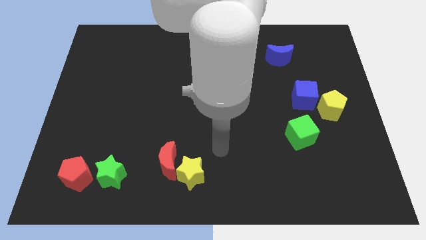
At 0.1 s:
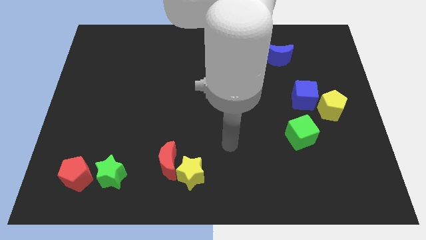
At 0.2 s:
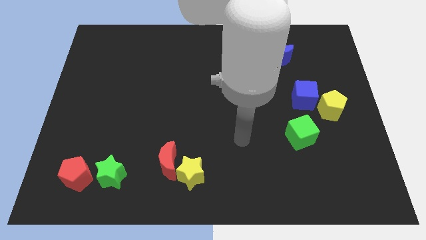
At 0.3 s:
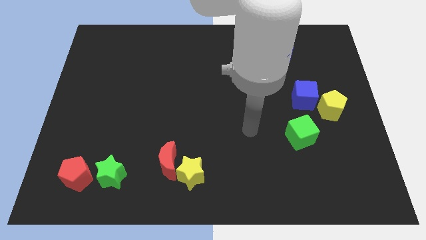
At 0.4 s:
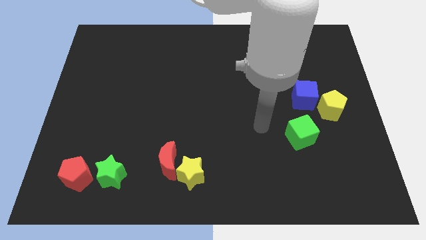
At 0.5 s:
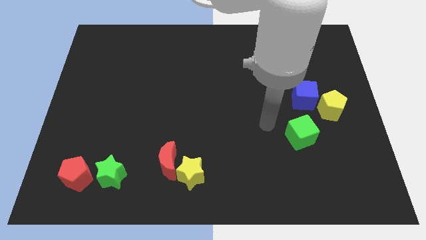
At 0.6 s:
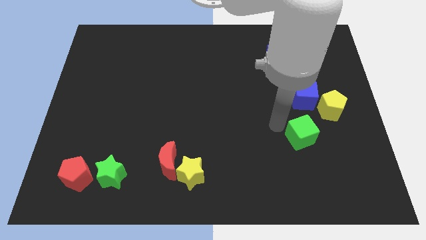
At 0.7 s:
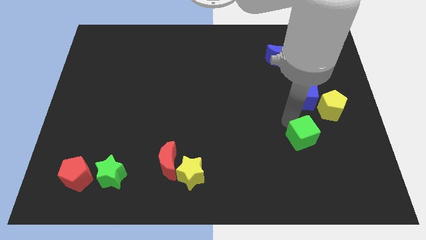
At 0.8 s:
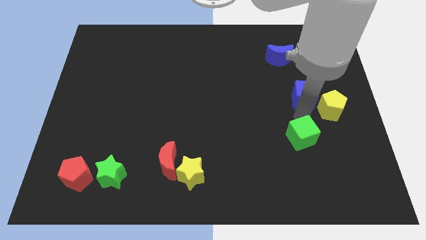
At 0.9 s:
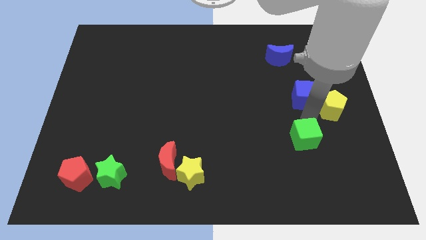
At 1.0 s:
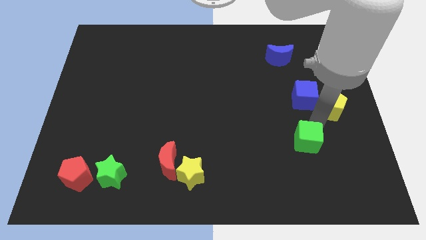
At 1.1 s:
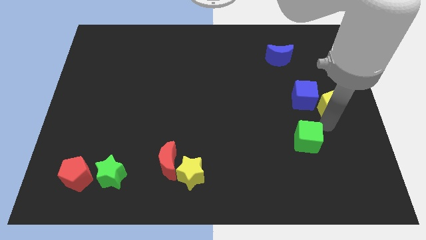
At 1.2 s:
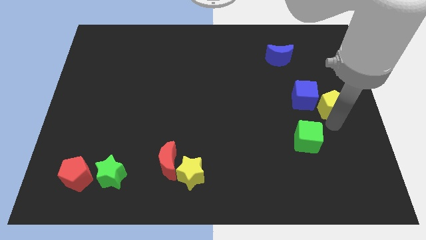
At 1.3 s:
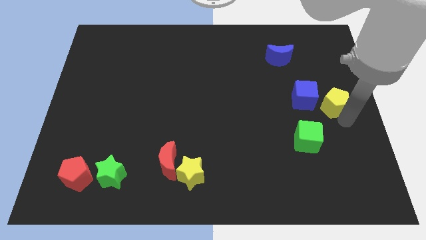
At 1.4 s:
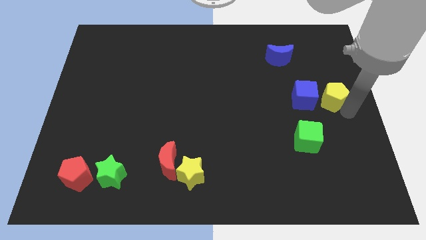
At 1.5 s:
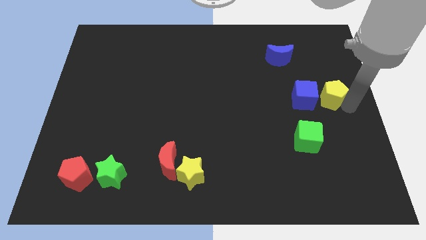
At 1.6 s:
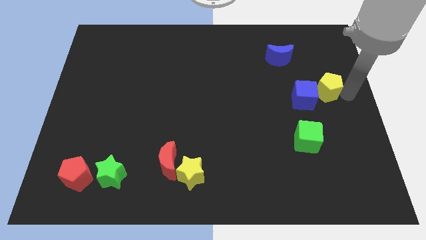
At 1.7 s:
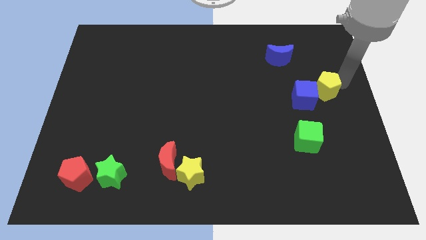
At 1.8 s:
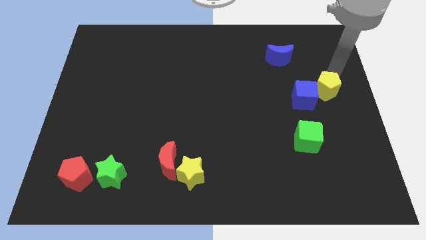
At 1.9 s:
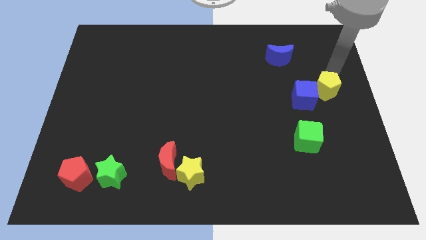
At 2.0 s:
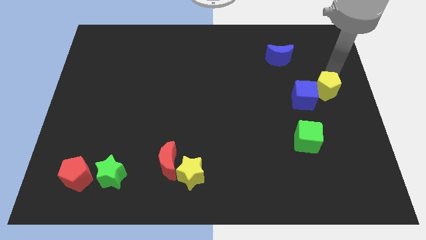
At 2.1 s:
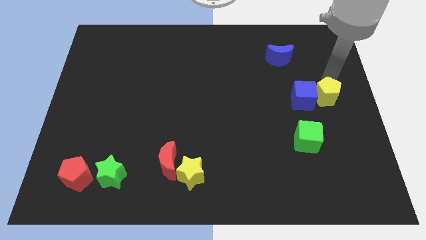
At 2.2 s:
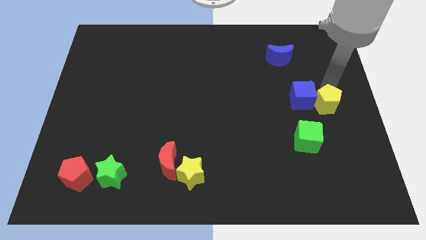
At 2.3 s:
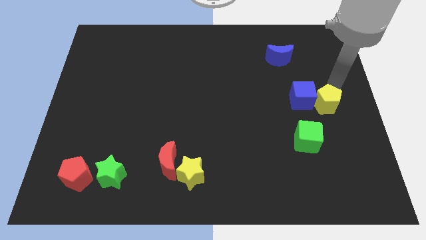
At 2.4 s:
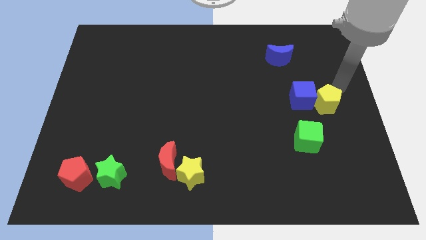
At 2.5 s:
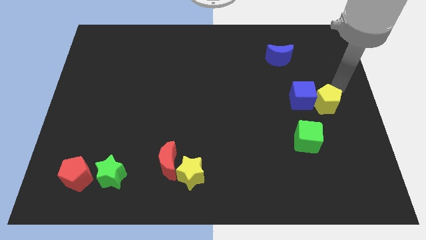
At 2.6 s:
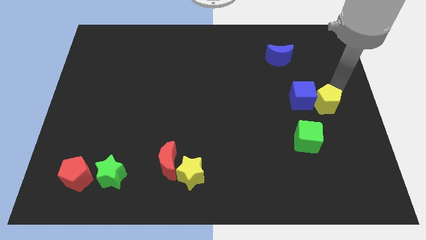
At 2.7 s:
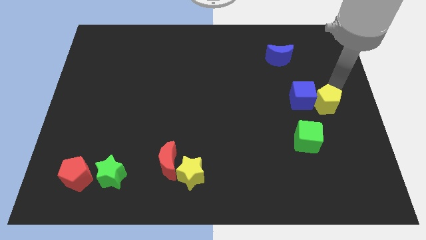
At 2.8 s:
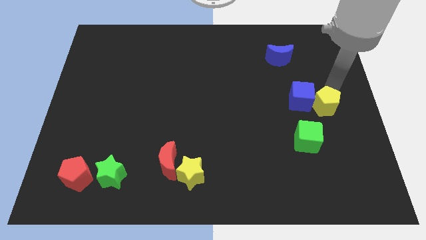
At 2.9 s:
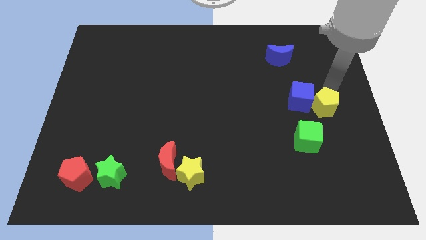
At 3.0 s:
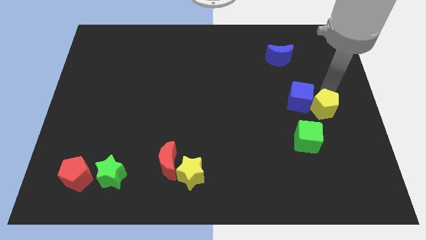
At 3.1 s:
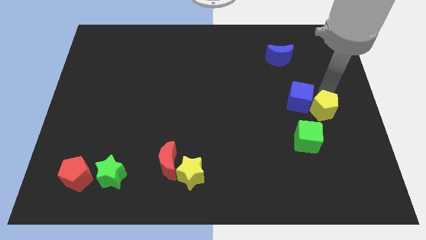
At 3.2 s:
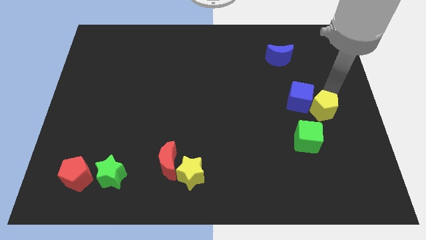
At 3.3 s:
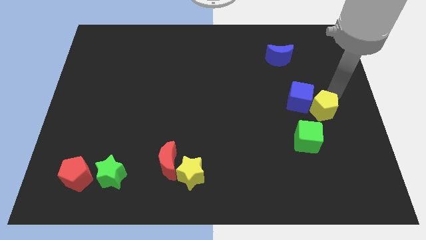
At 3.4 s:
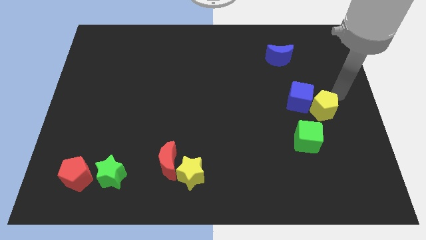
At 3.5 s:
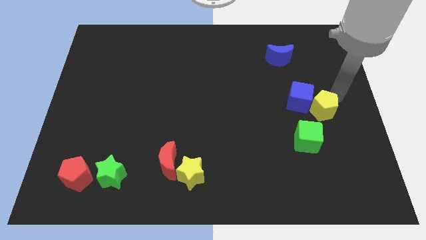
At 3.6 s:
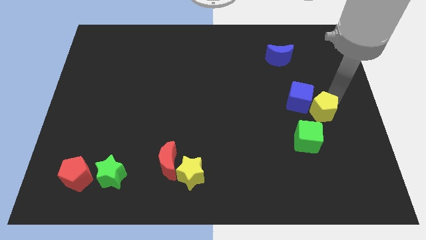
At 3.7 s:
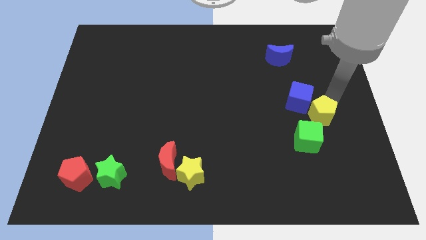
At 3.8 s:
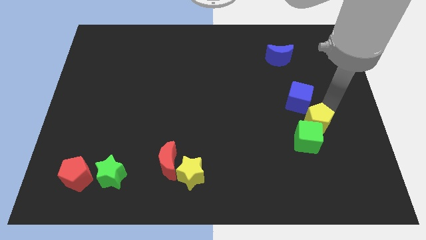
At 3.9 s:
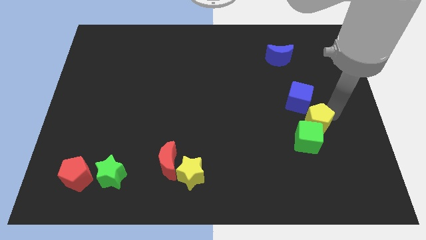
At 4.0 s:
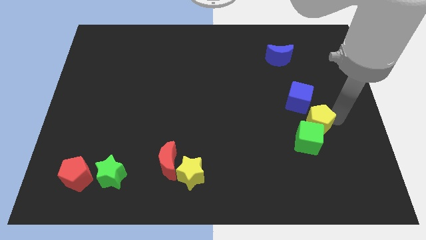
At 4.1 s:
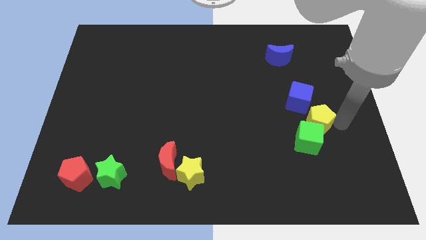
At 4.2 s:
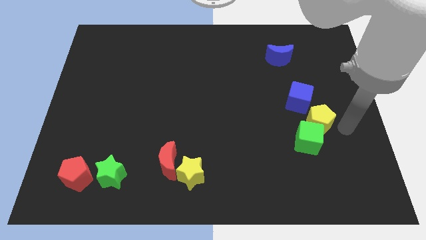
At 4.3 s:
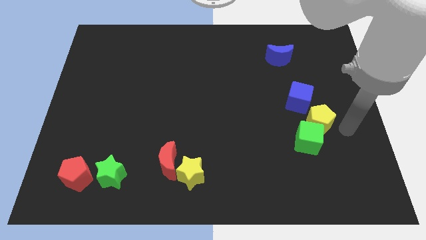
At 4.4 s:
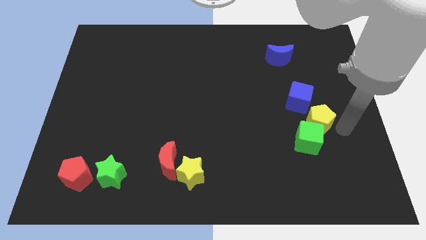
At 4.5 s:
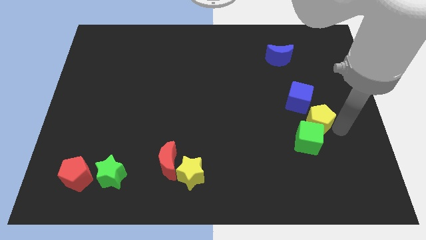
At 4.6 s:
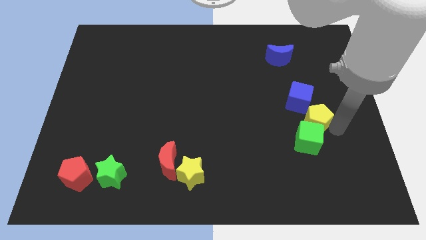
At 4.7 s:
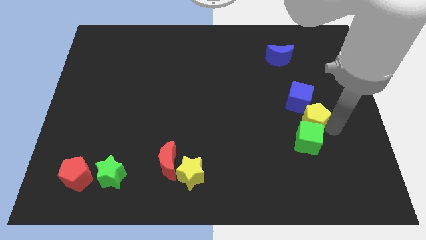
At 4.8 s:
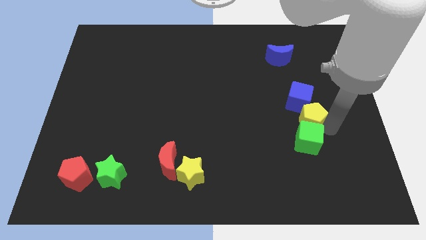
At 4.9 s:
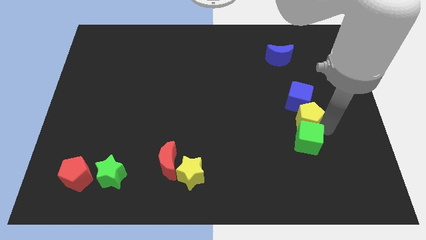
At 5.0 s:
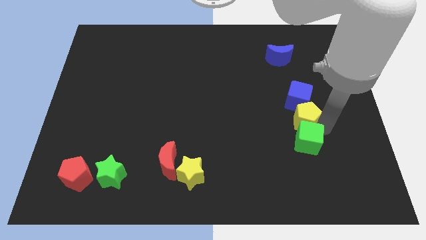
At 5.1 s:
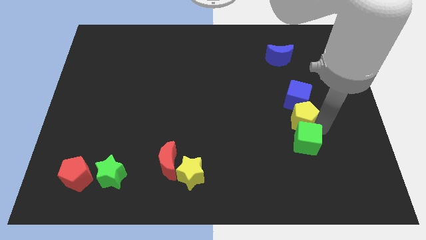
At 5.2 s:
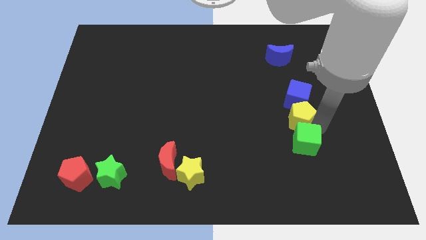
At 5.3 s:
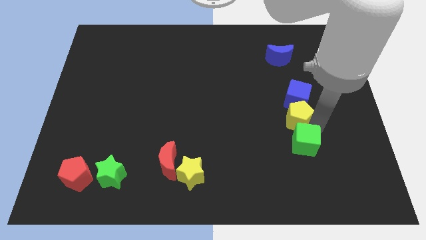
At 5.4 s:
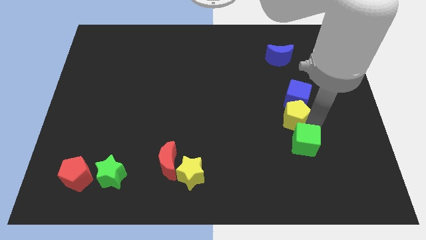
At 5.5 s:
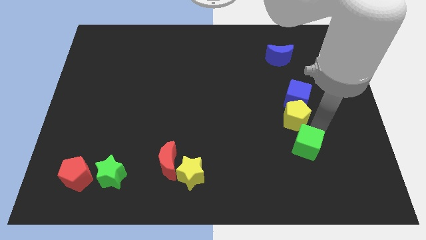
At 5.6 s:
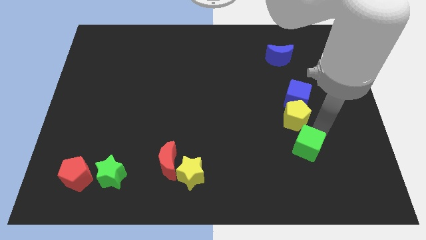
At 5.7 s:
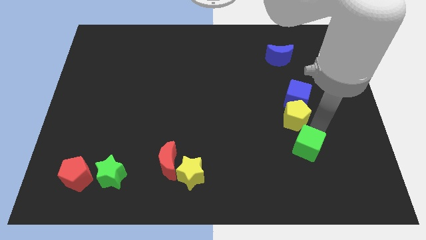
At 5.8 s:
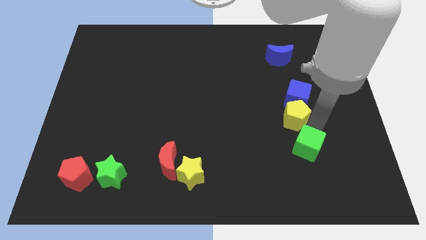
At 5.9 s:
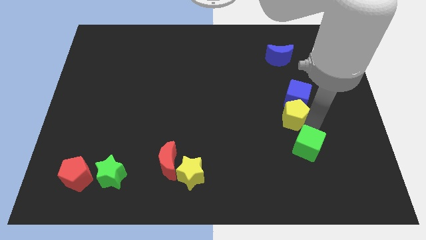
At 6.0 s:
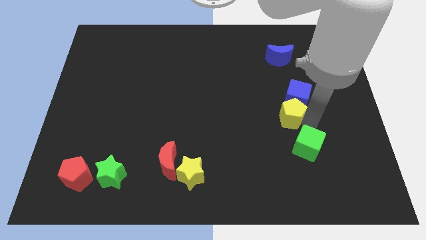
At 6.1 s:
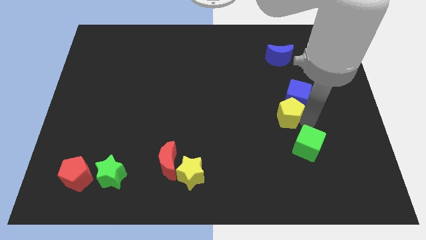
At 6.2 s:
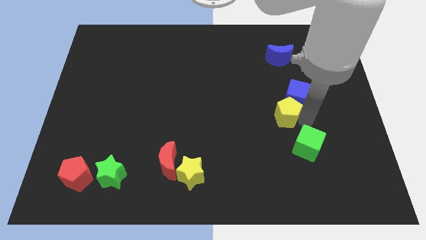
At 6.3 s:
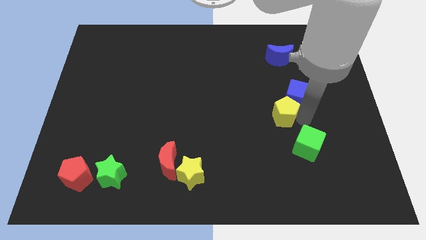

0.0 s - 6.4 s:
put the yellow pentagon left of the blue cube
